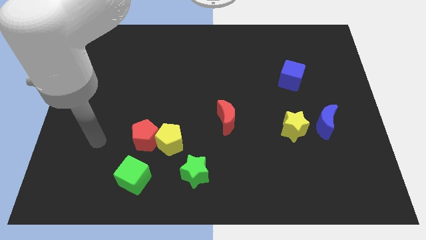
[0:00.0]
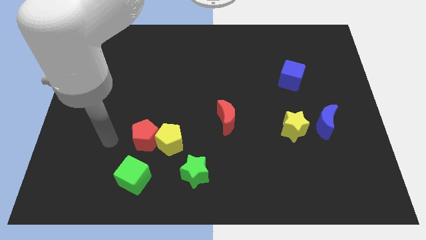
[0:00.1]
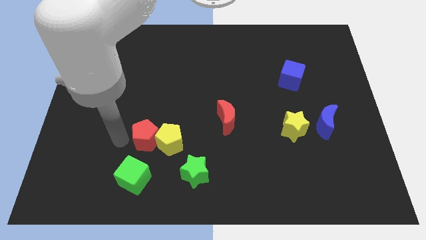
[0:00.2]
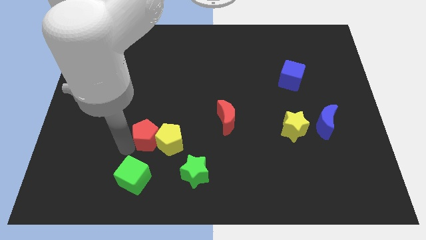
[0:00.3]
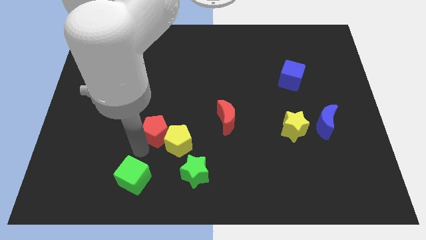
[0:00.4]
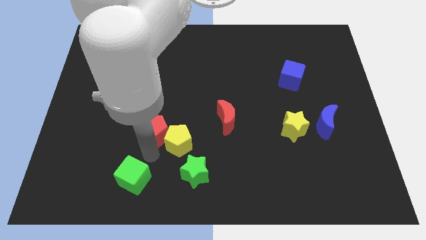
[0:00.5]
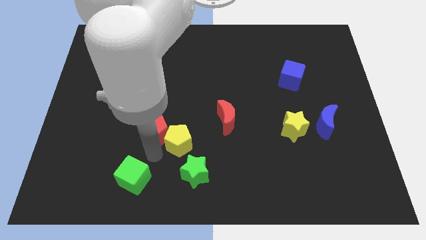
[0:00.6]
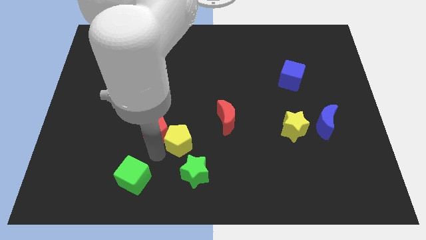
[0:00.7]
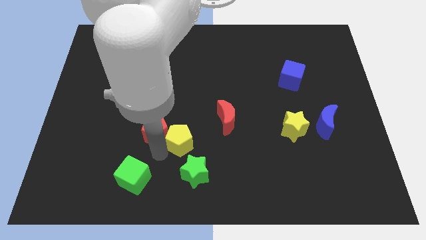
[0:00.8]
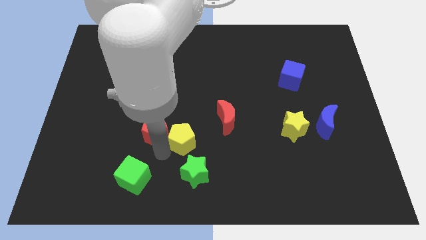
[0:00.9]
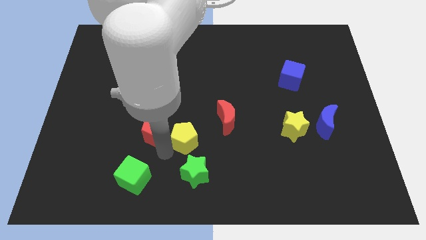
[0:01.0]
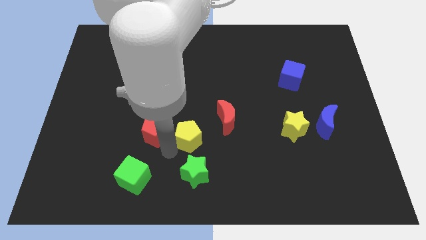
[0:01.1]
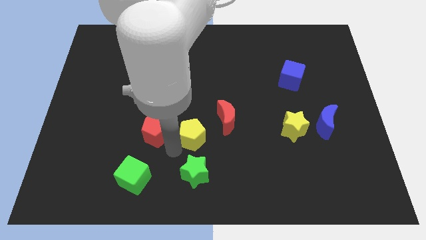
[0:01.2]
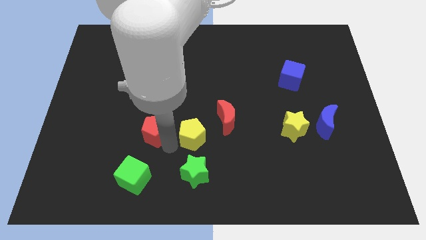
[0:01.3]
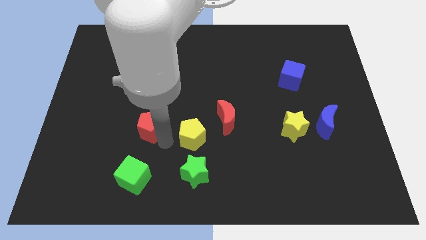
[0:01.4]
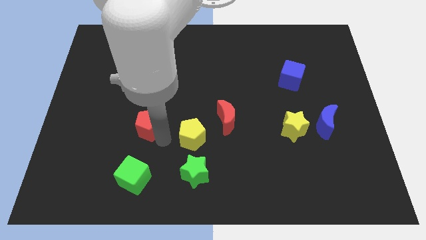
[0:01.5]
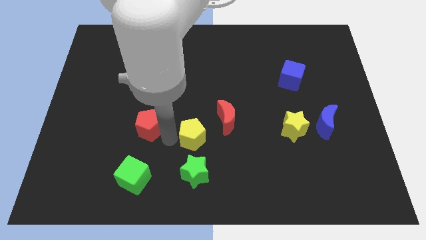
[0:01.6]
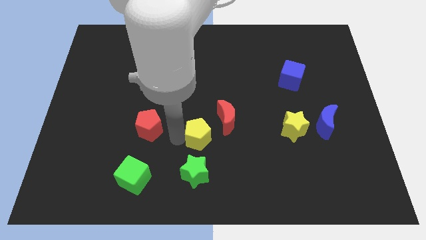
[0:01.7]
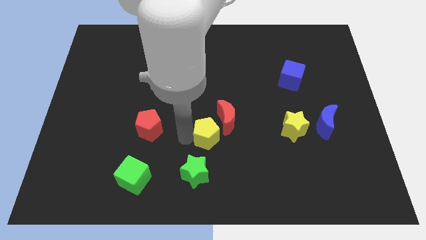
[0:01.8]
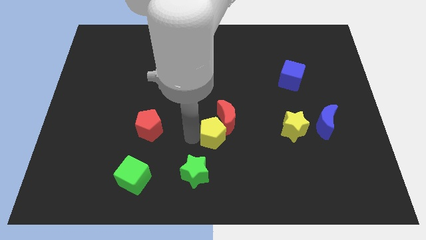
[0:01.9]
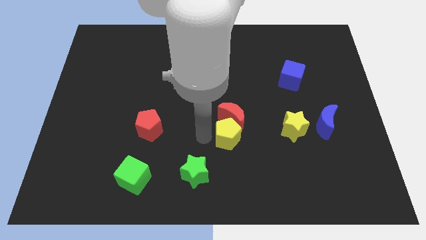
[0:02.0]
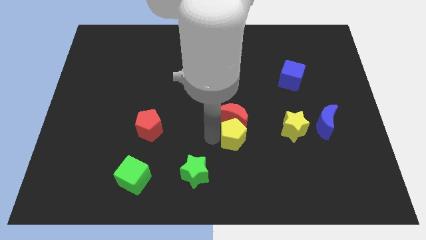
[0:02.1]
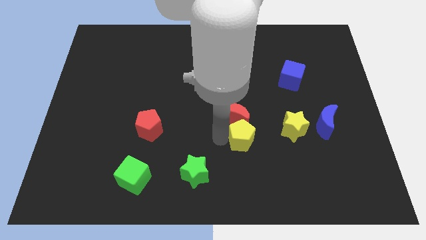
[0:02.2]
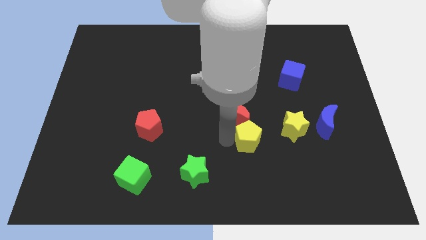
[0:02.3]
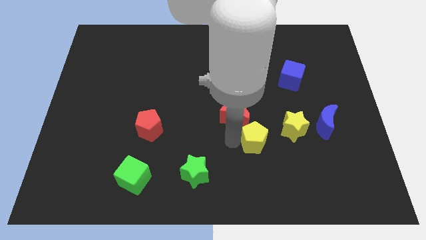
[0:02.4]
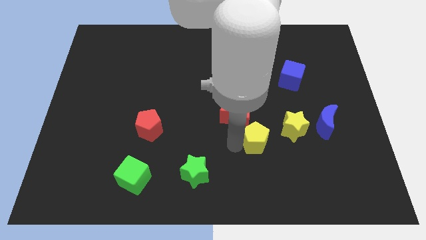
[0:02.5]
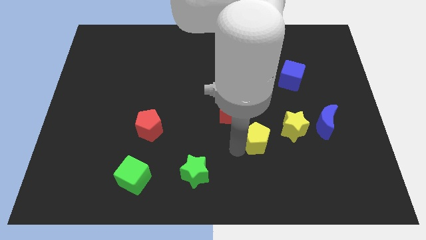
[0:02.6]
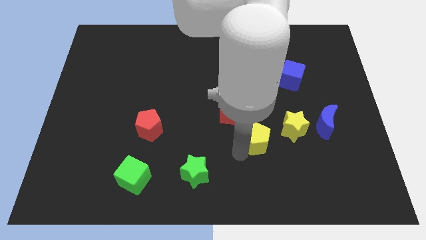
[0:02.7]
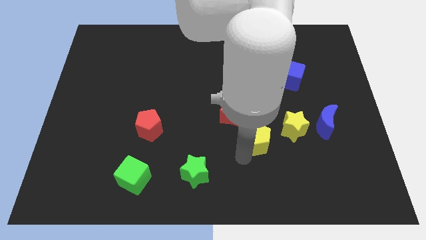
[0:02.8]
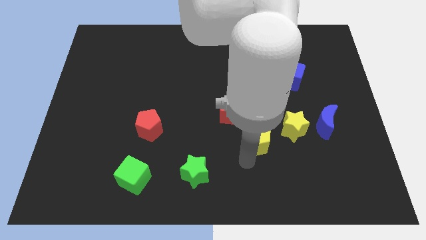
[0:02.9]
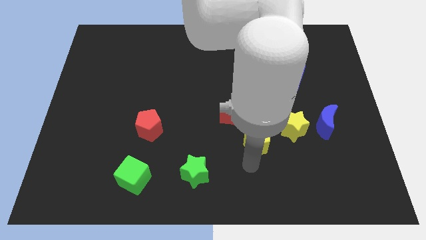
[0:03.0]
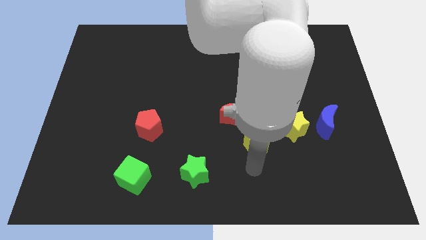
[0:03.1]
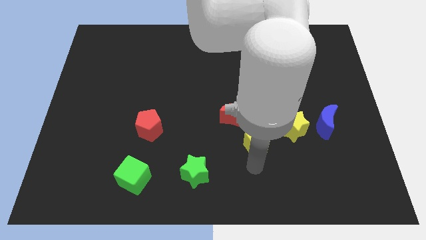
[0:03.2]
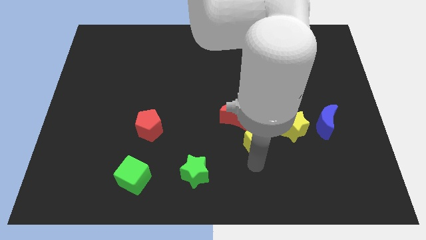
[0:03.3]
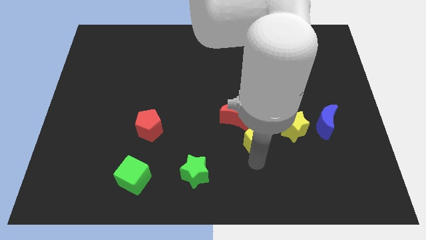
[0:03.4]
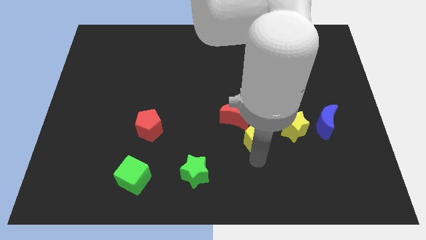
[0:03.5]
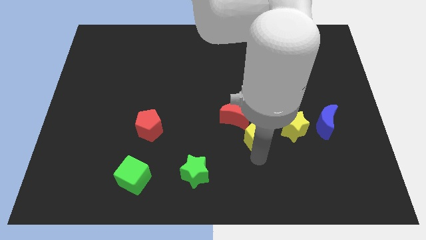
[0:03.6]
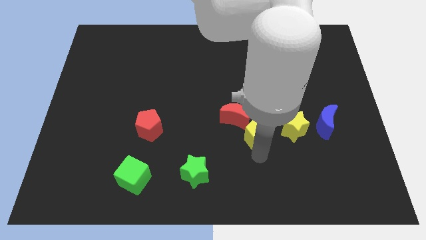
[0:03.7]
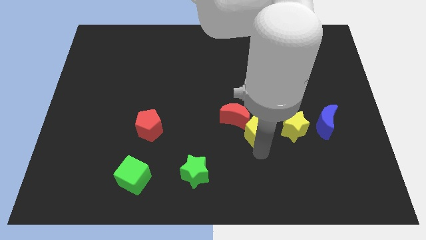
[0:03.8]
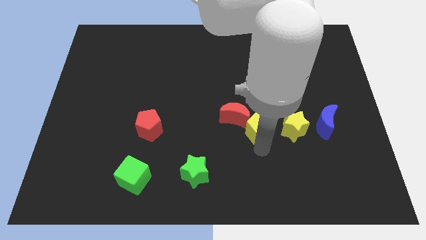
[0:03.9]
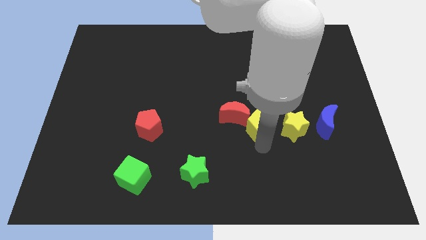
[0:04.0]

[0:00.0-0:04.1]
slide the yellow pentagon diagonally up and to the left of the yellow star

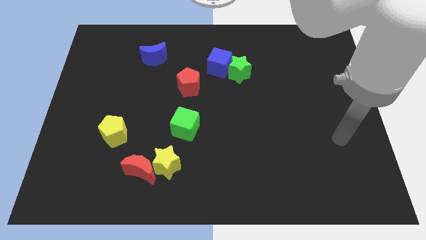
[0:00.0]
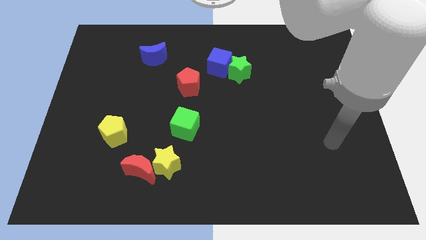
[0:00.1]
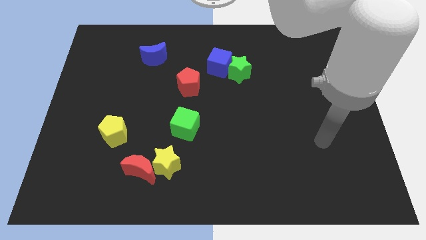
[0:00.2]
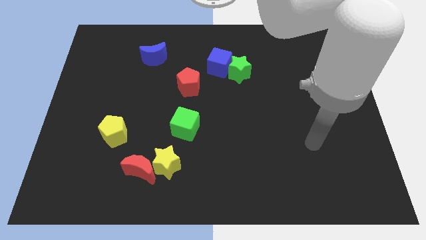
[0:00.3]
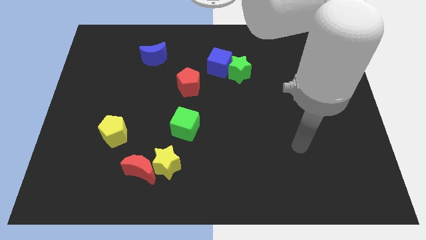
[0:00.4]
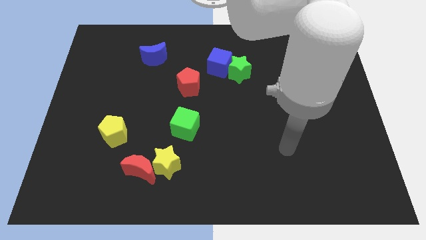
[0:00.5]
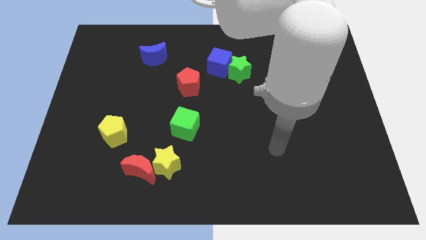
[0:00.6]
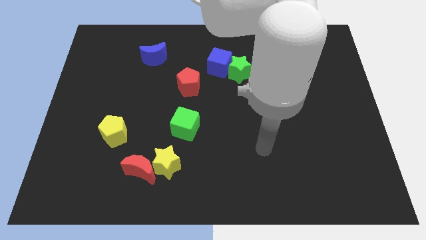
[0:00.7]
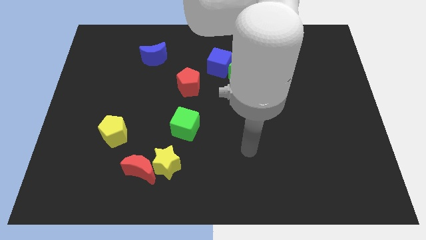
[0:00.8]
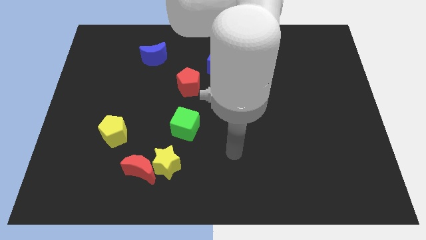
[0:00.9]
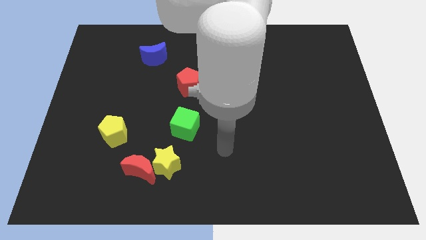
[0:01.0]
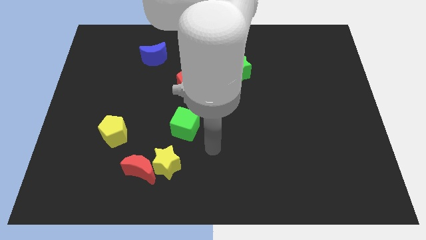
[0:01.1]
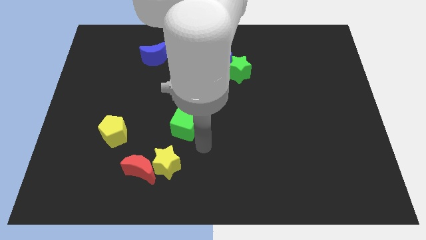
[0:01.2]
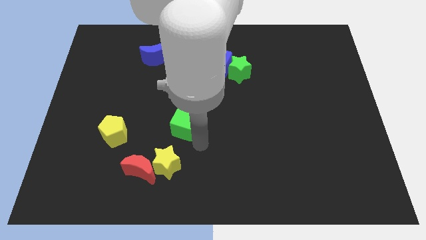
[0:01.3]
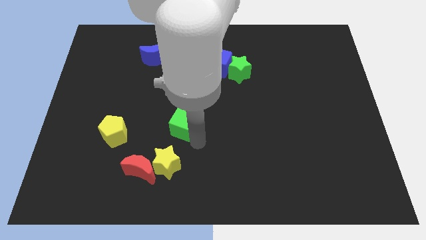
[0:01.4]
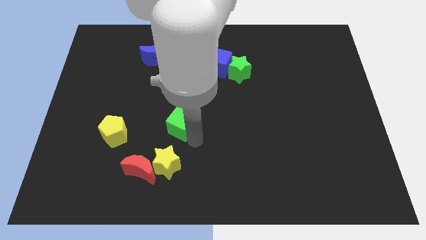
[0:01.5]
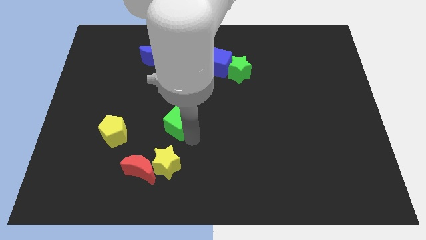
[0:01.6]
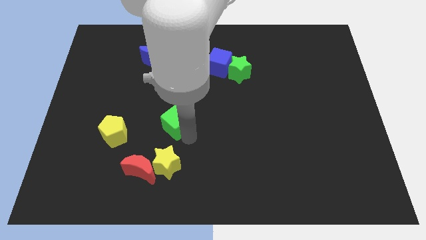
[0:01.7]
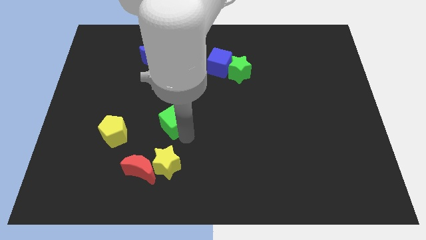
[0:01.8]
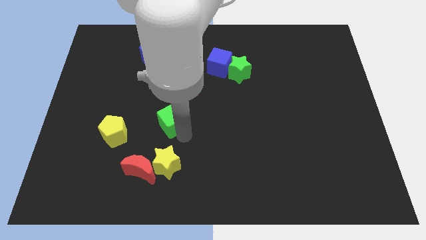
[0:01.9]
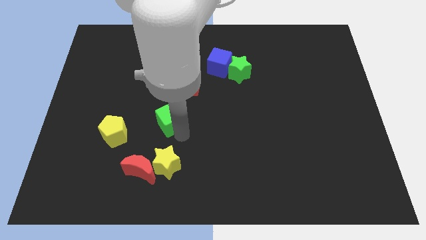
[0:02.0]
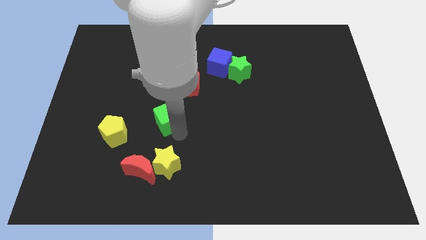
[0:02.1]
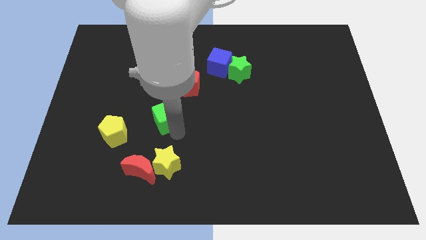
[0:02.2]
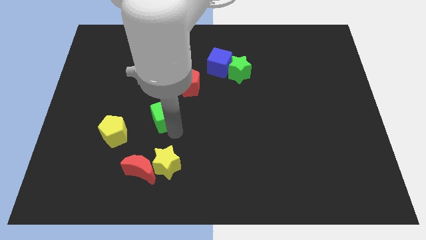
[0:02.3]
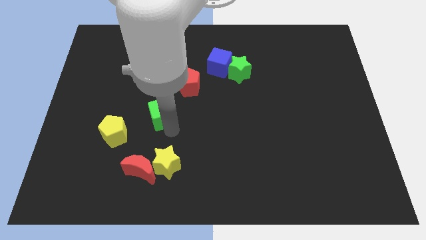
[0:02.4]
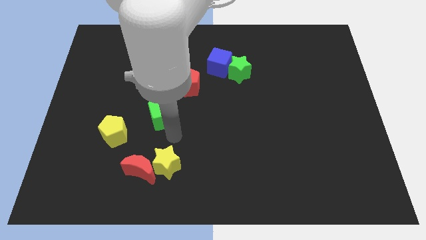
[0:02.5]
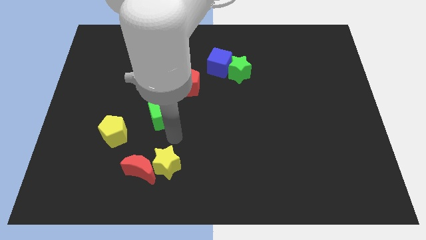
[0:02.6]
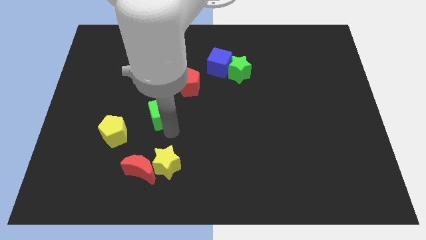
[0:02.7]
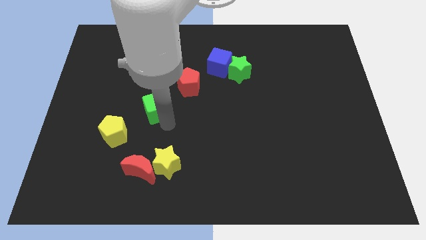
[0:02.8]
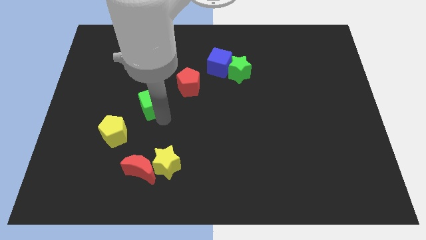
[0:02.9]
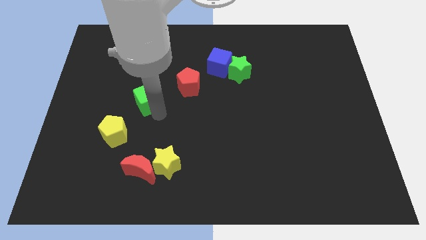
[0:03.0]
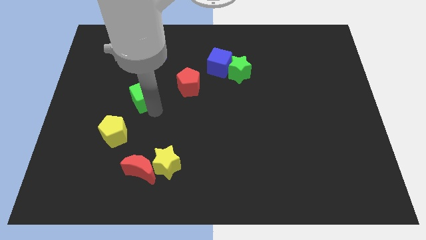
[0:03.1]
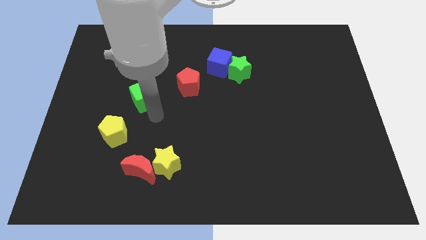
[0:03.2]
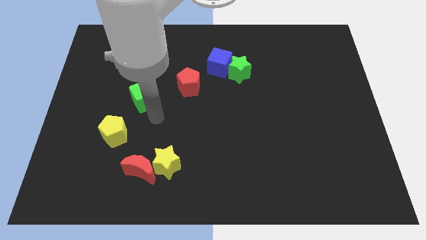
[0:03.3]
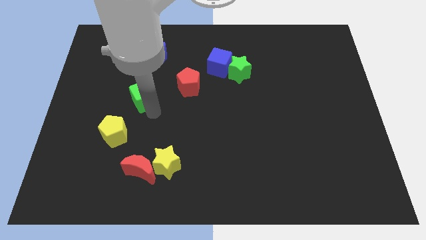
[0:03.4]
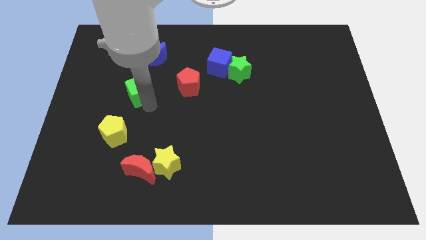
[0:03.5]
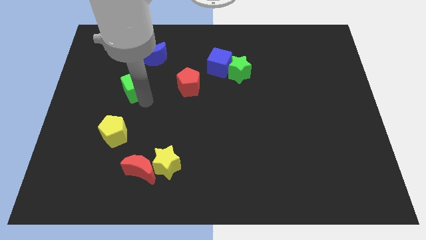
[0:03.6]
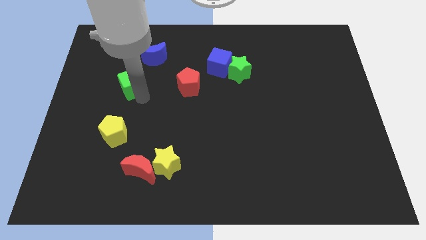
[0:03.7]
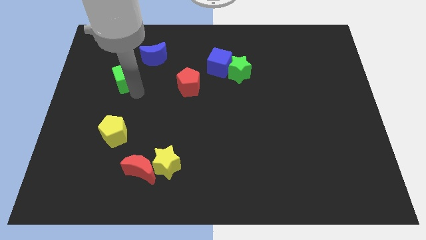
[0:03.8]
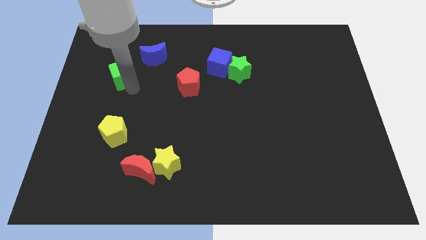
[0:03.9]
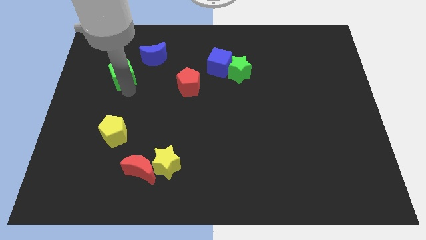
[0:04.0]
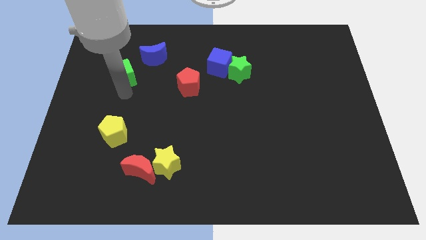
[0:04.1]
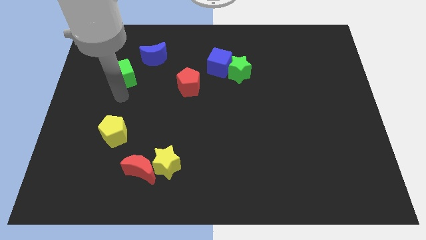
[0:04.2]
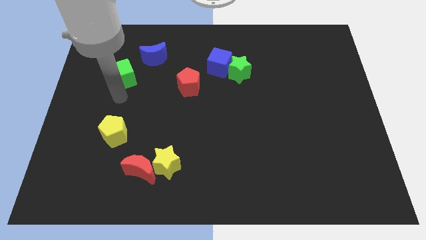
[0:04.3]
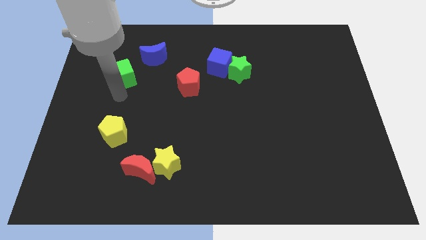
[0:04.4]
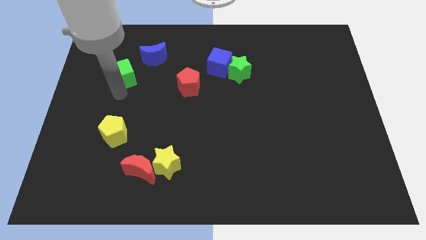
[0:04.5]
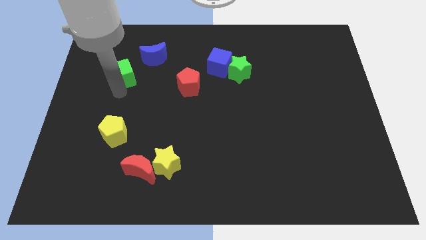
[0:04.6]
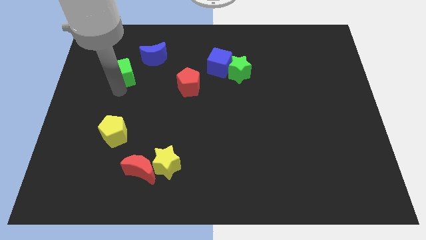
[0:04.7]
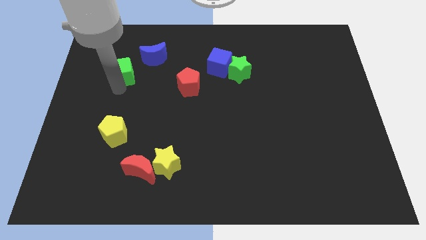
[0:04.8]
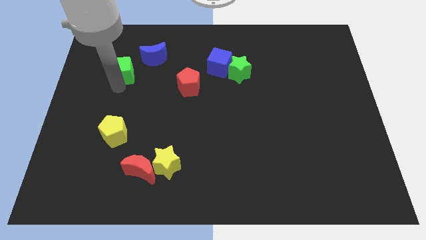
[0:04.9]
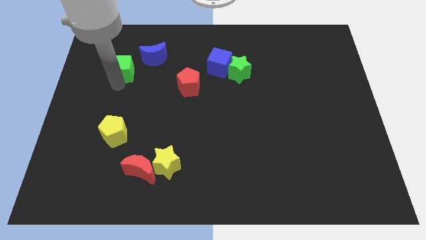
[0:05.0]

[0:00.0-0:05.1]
move the green cube left of the blue moon
